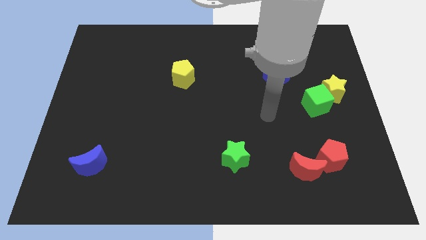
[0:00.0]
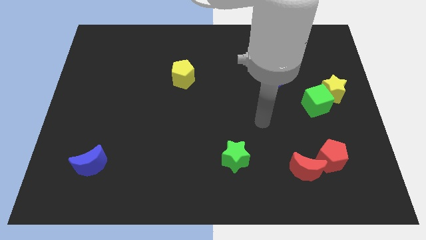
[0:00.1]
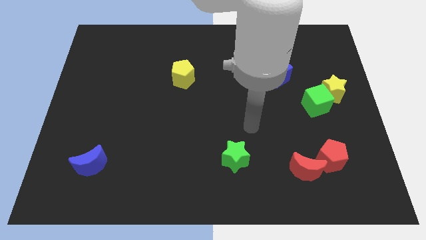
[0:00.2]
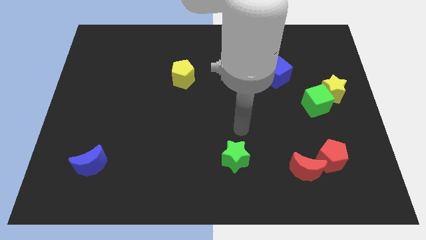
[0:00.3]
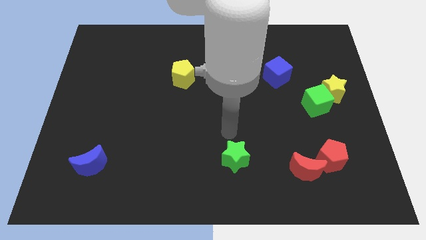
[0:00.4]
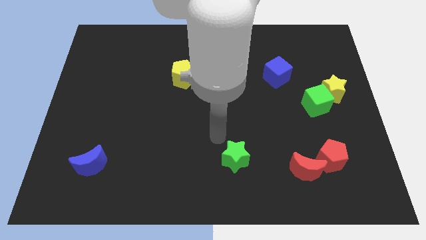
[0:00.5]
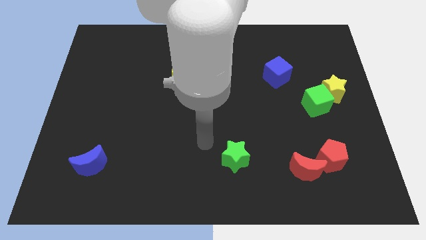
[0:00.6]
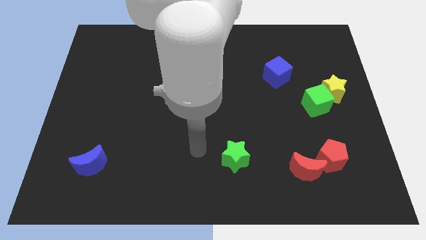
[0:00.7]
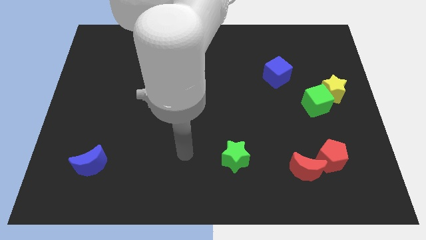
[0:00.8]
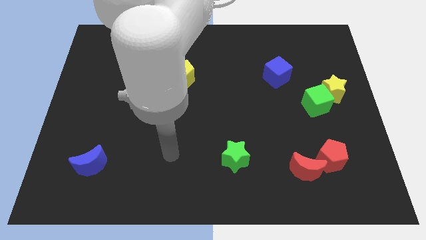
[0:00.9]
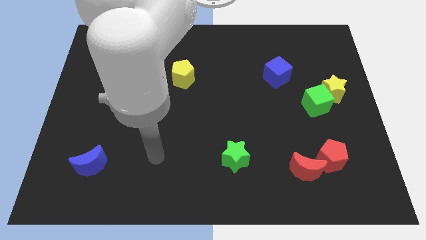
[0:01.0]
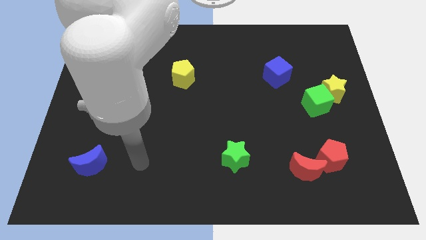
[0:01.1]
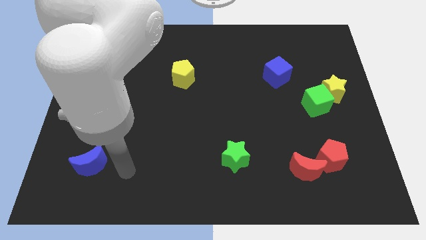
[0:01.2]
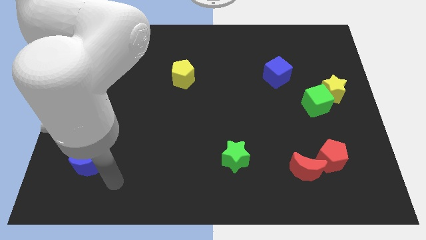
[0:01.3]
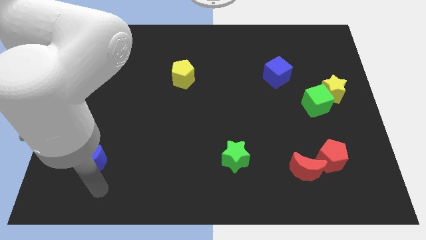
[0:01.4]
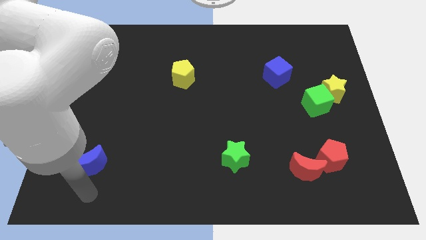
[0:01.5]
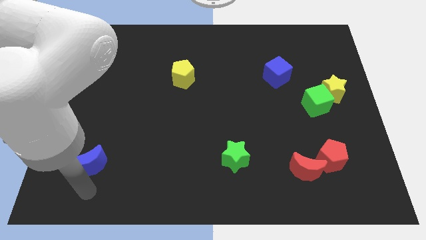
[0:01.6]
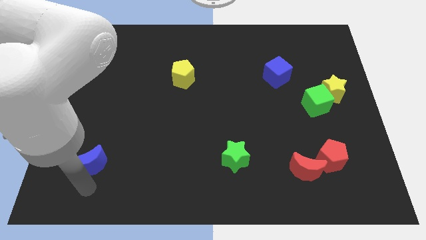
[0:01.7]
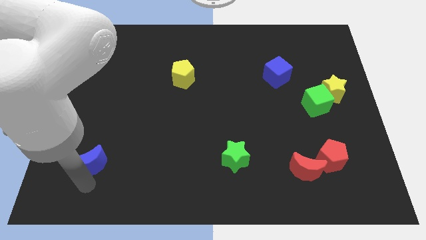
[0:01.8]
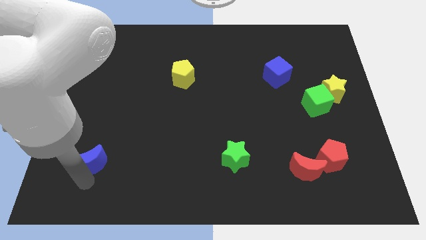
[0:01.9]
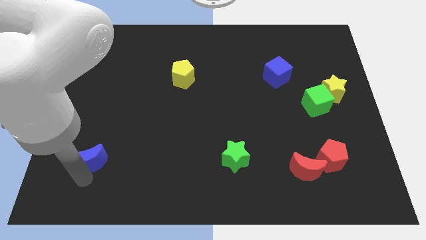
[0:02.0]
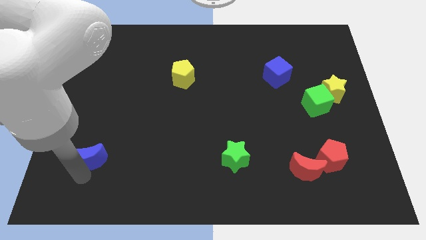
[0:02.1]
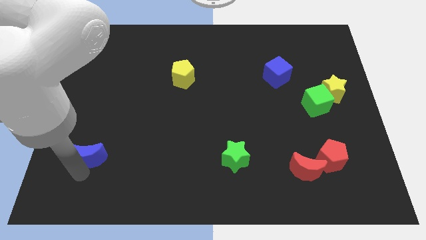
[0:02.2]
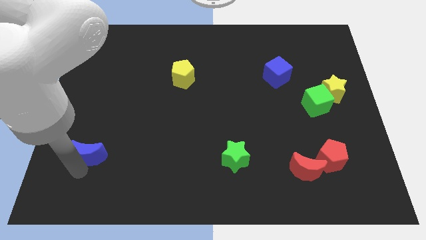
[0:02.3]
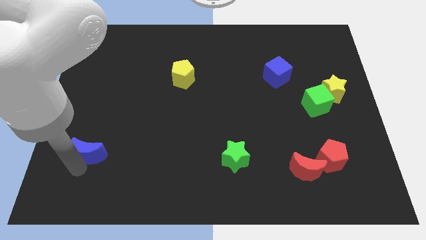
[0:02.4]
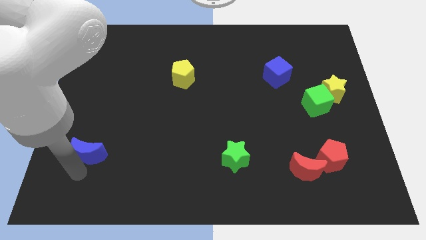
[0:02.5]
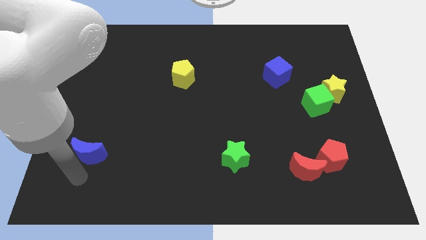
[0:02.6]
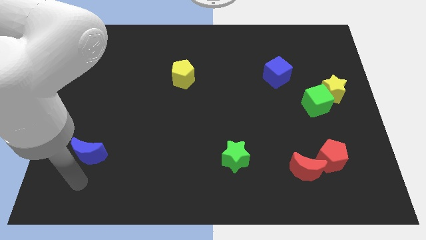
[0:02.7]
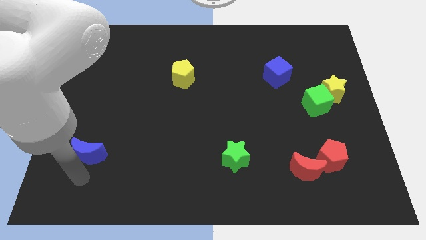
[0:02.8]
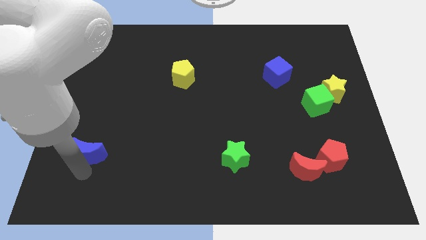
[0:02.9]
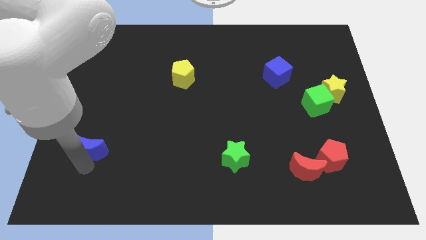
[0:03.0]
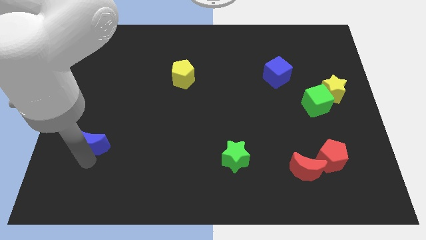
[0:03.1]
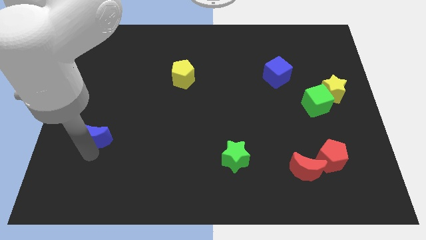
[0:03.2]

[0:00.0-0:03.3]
slightly push the blue moon upwards

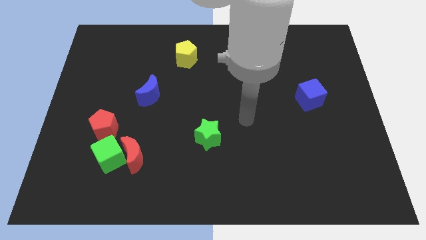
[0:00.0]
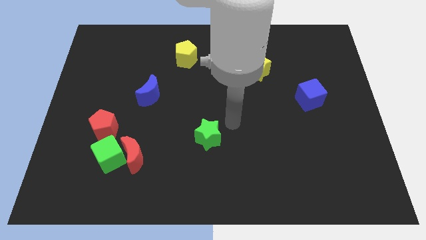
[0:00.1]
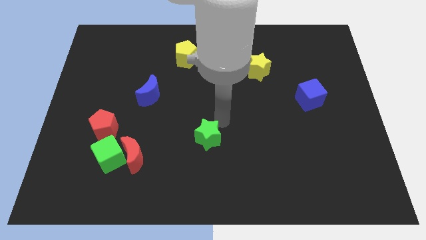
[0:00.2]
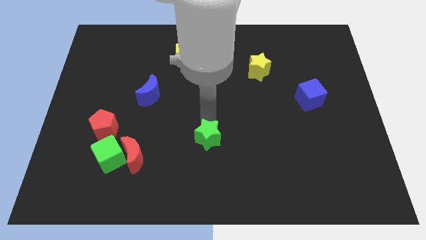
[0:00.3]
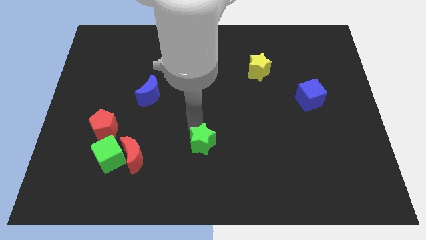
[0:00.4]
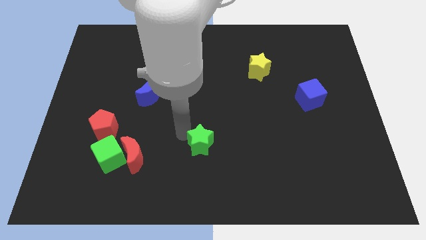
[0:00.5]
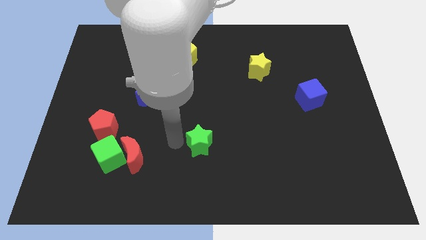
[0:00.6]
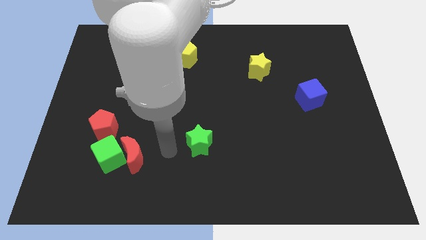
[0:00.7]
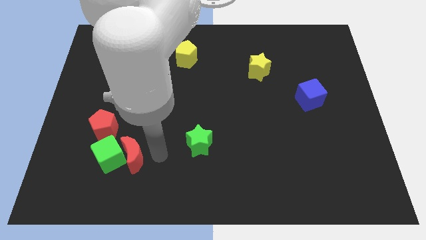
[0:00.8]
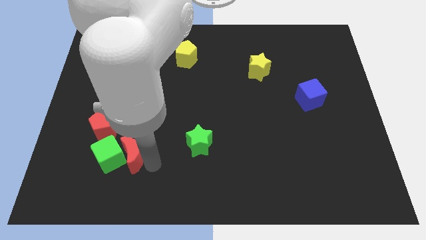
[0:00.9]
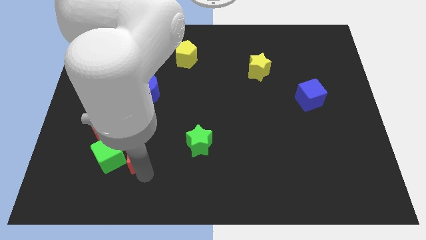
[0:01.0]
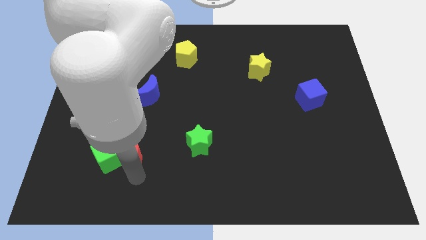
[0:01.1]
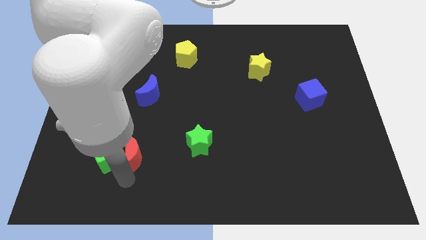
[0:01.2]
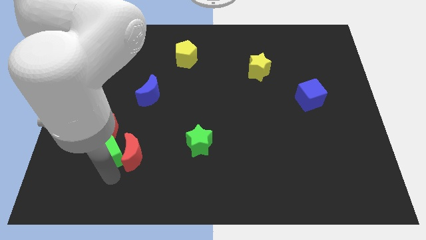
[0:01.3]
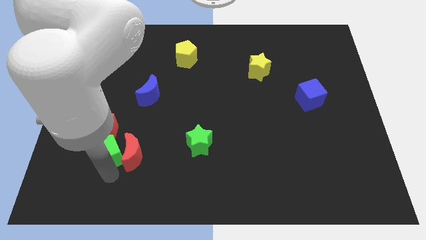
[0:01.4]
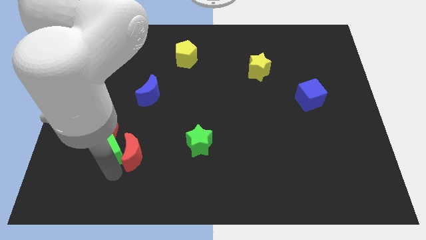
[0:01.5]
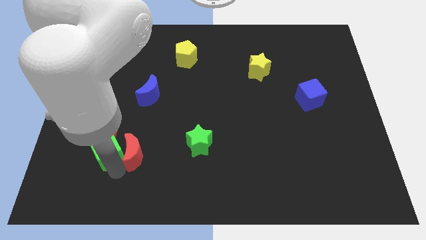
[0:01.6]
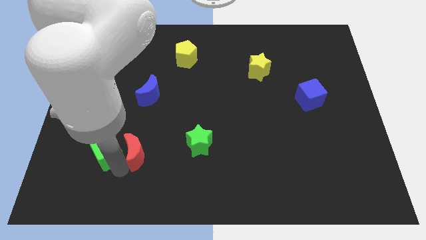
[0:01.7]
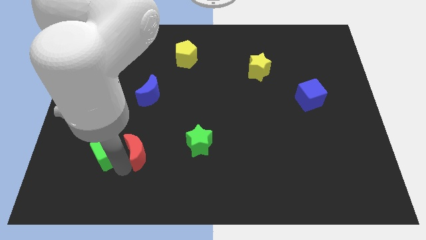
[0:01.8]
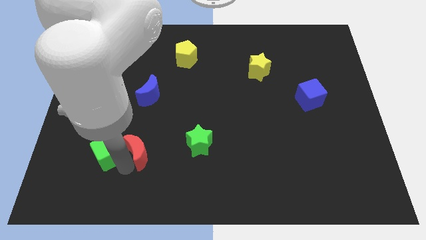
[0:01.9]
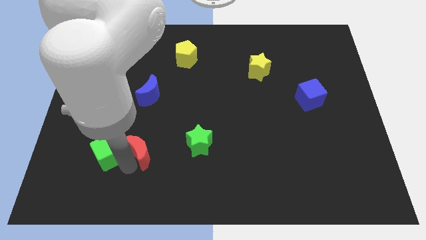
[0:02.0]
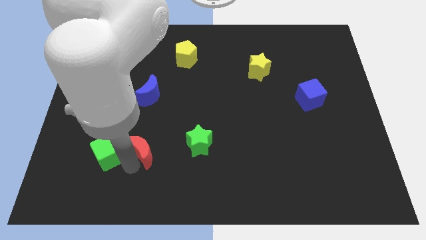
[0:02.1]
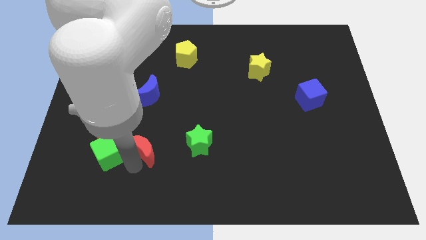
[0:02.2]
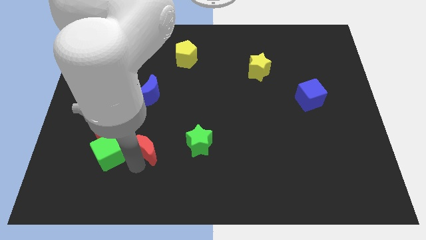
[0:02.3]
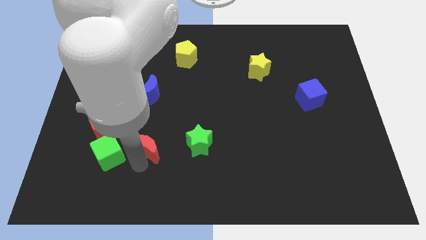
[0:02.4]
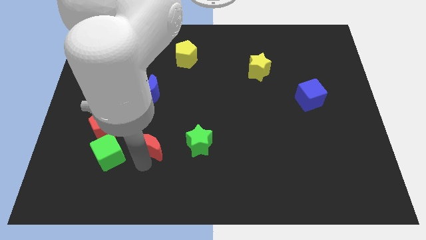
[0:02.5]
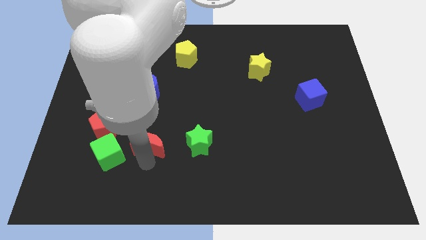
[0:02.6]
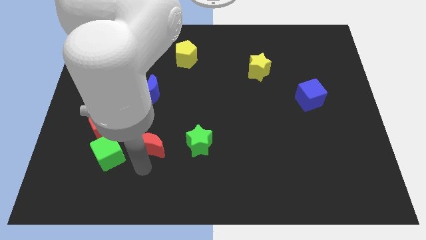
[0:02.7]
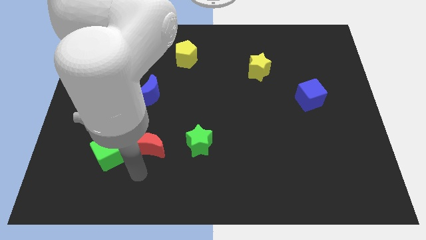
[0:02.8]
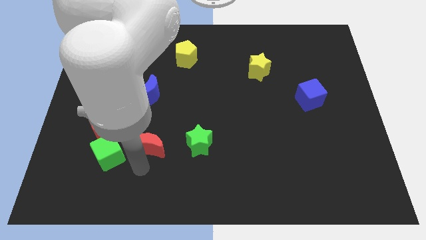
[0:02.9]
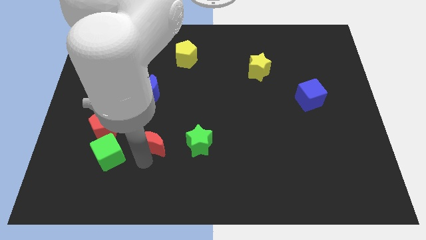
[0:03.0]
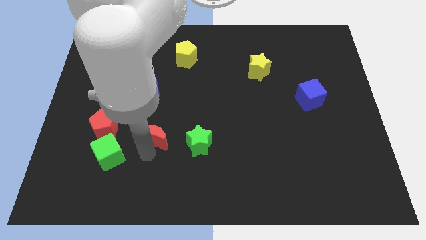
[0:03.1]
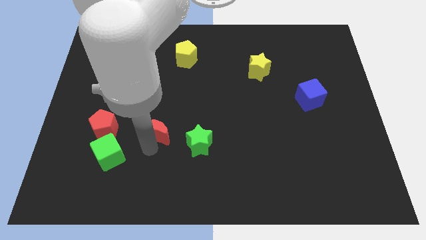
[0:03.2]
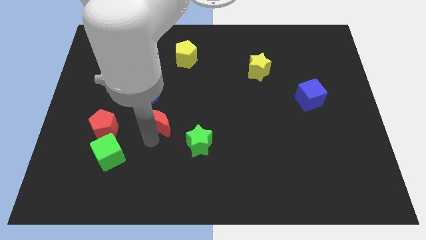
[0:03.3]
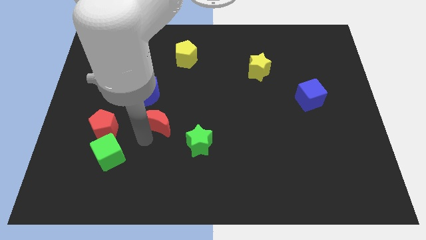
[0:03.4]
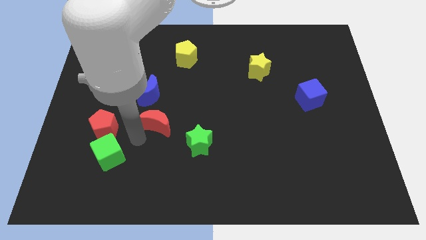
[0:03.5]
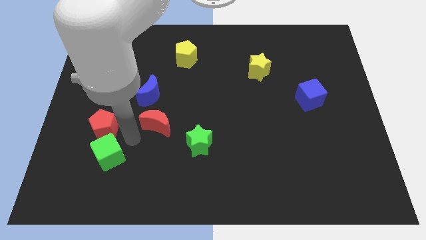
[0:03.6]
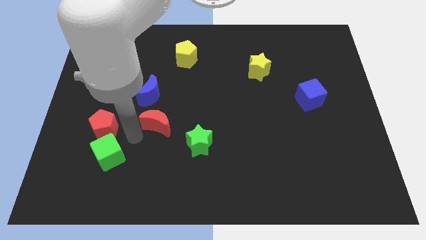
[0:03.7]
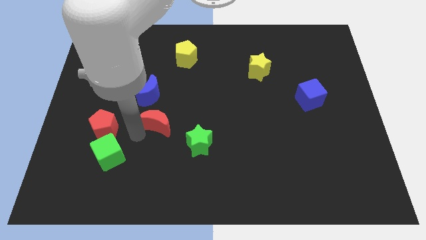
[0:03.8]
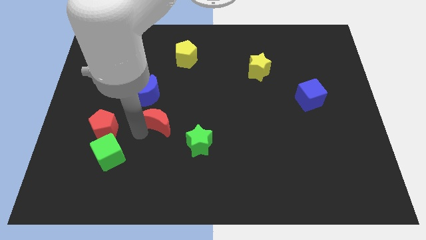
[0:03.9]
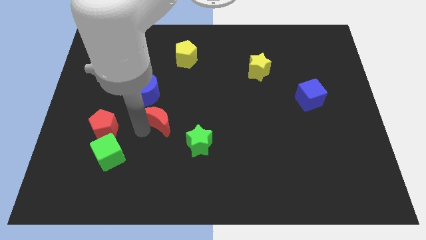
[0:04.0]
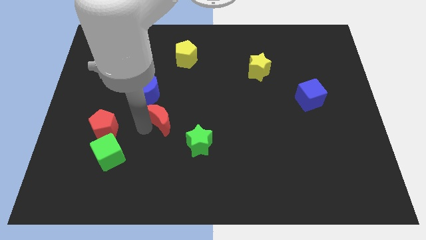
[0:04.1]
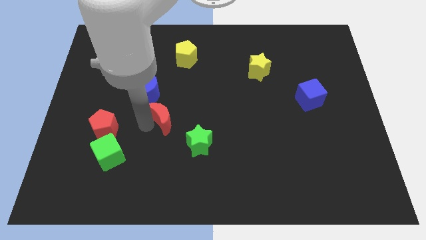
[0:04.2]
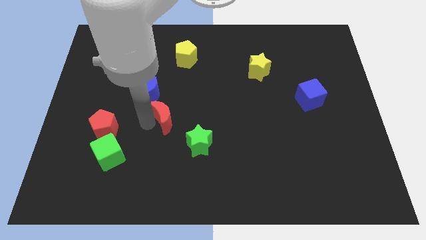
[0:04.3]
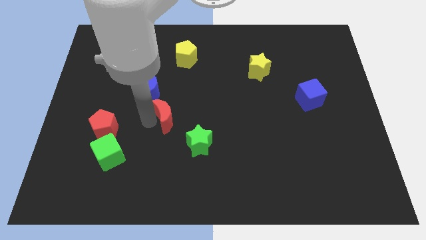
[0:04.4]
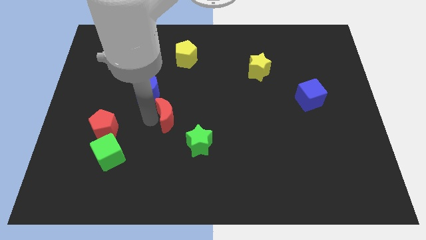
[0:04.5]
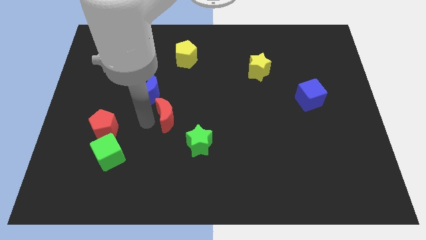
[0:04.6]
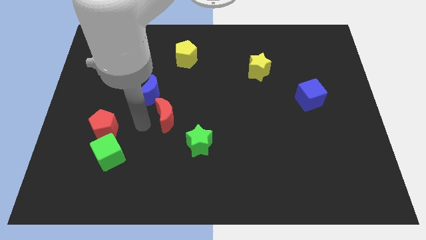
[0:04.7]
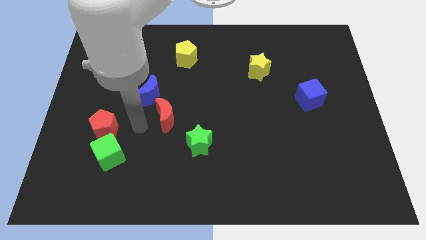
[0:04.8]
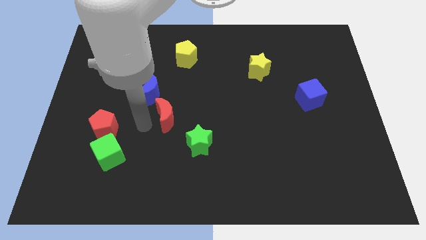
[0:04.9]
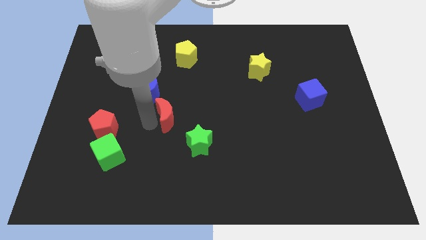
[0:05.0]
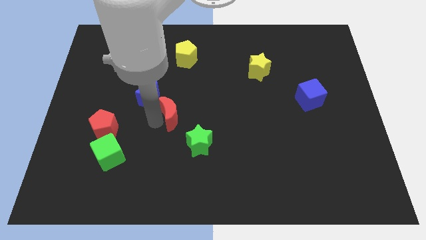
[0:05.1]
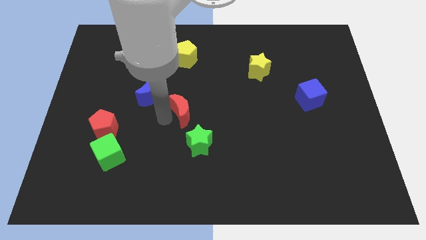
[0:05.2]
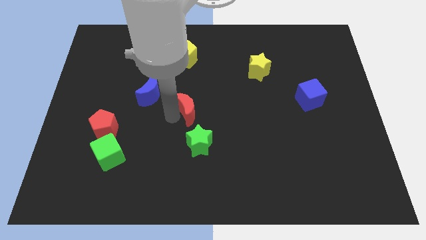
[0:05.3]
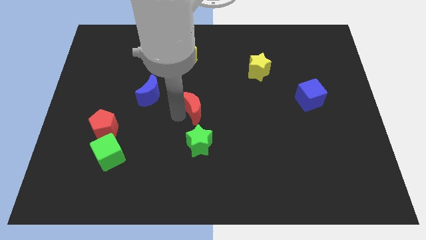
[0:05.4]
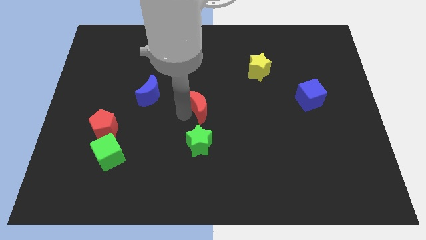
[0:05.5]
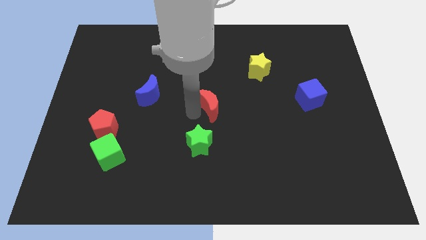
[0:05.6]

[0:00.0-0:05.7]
move the red moon diagonally up and to the right
